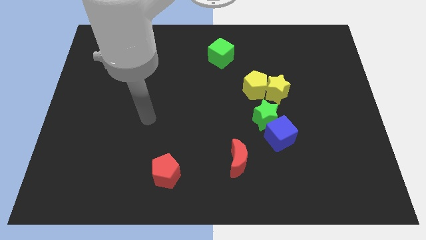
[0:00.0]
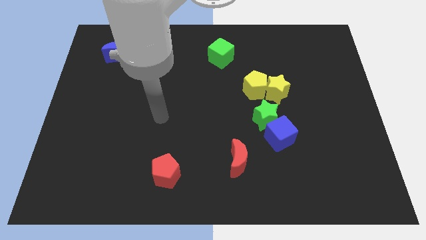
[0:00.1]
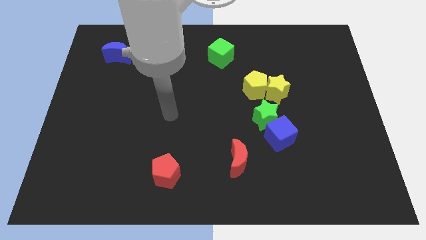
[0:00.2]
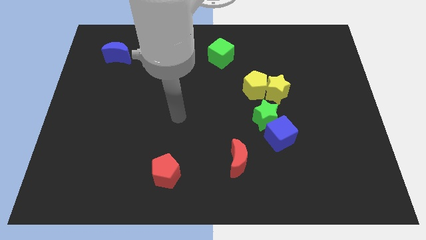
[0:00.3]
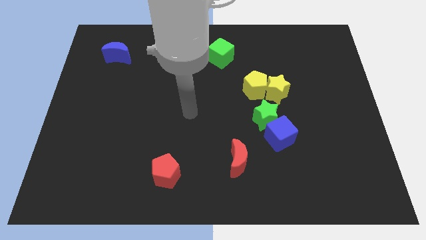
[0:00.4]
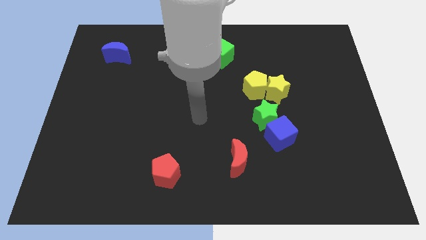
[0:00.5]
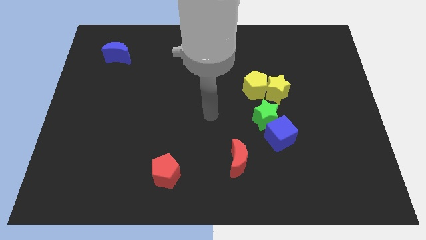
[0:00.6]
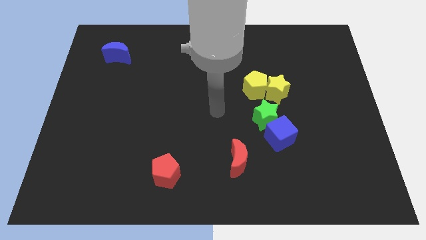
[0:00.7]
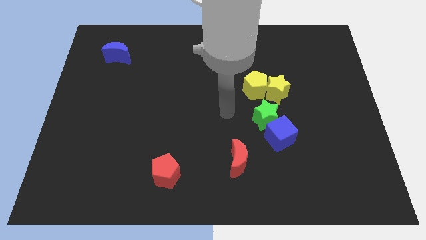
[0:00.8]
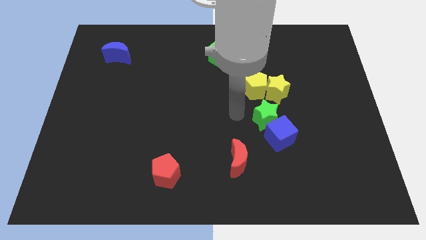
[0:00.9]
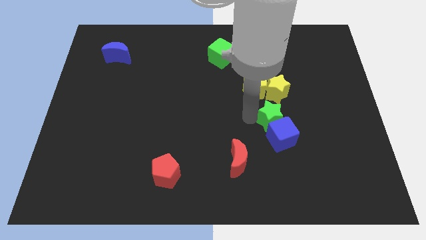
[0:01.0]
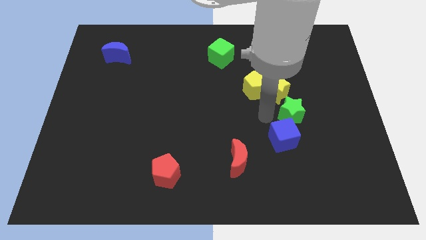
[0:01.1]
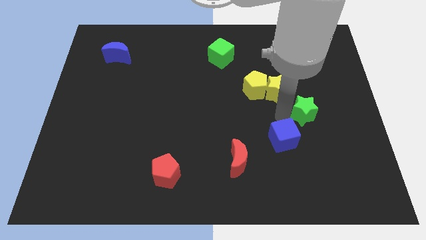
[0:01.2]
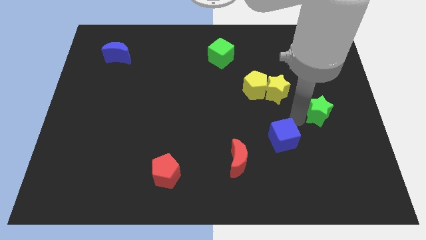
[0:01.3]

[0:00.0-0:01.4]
separate the blue cube from the green star

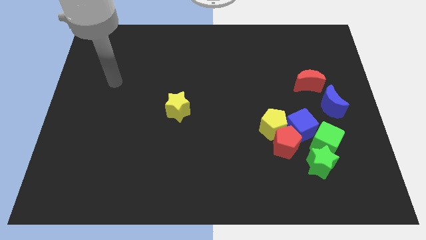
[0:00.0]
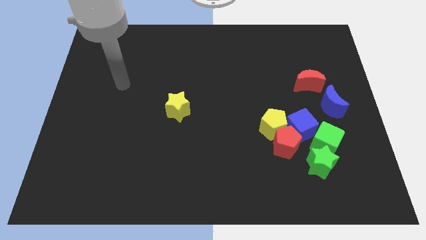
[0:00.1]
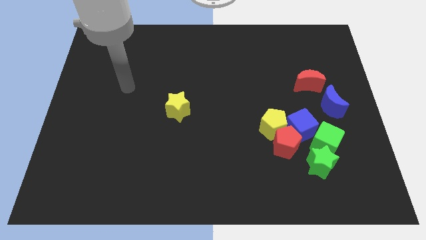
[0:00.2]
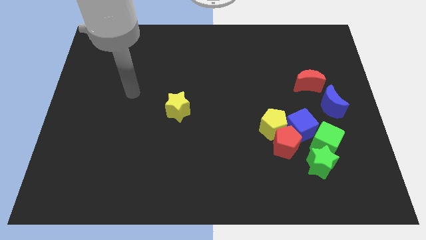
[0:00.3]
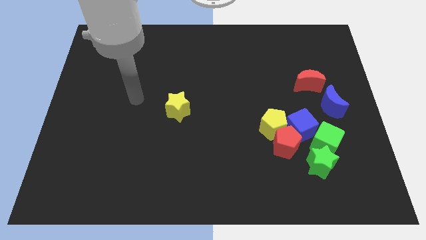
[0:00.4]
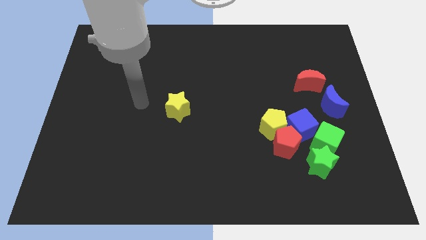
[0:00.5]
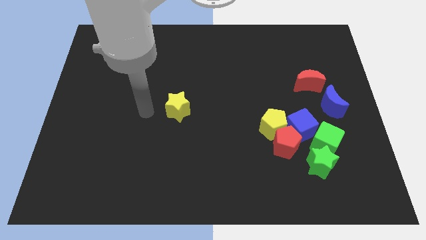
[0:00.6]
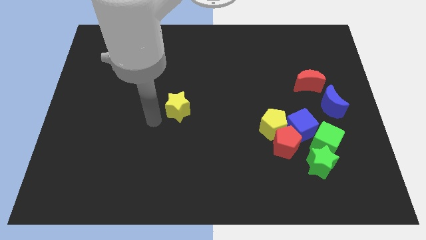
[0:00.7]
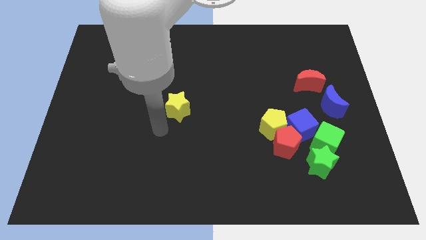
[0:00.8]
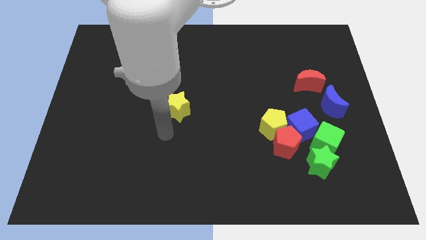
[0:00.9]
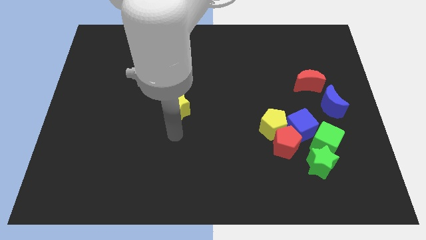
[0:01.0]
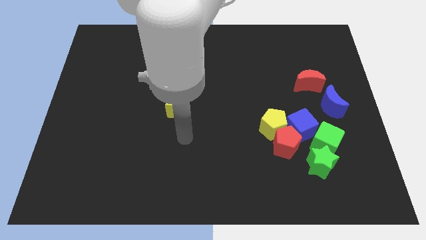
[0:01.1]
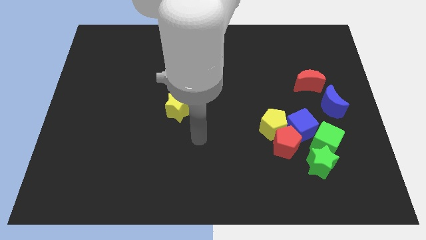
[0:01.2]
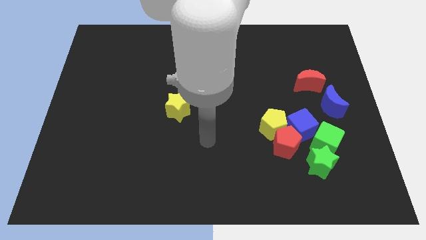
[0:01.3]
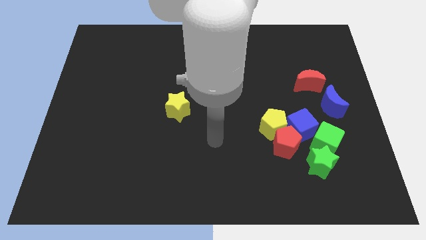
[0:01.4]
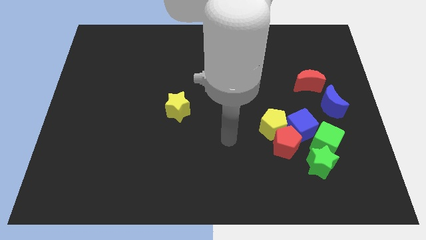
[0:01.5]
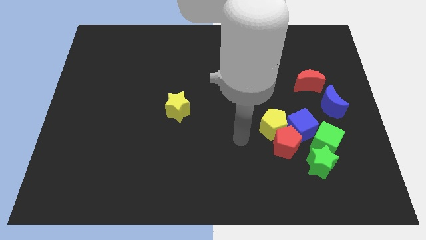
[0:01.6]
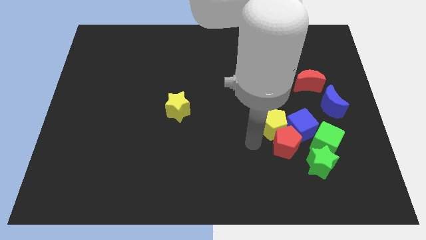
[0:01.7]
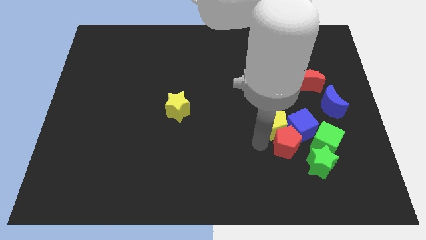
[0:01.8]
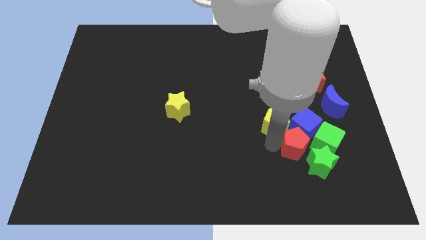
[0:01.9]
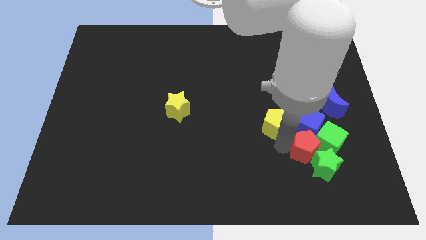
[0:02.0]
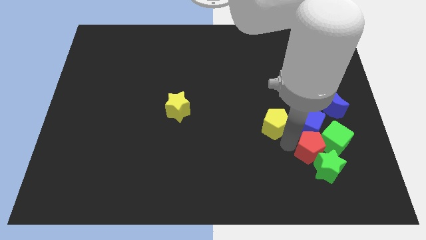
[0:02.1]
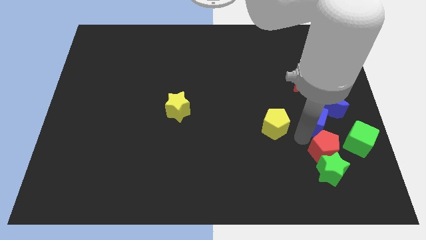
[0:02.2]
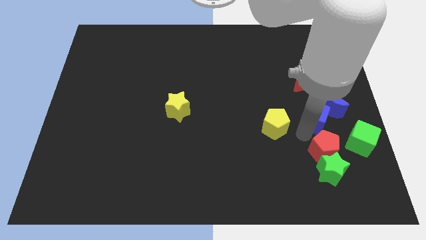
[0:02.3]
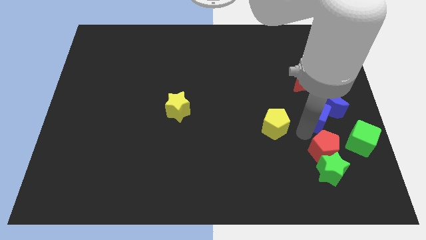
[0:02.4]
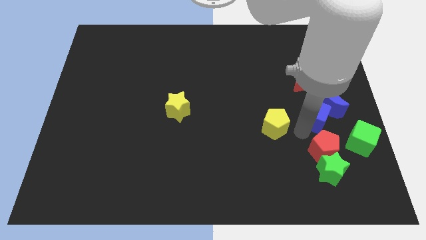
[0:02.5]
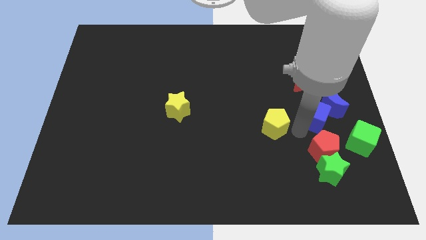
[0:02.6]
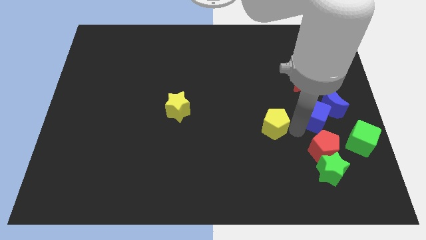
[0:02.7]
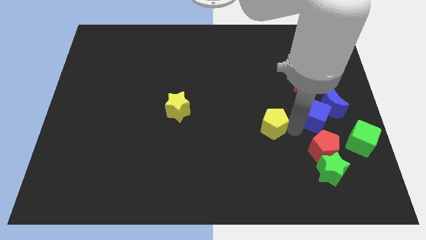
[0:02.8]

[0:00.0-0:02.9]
separate the yellow pentagon from the red pentagon and blue cube

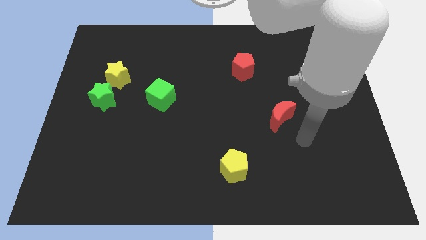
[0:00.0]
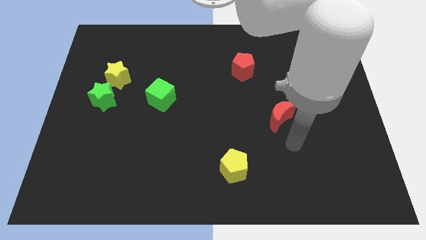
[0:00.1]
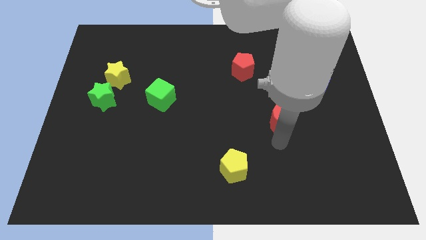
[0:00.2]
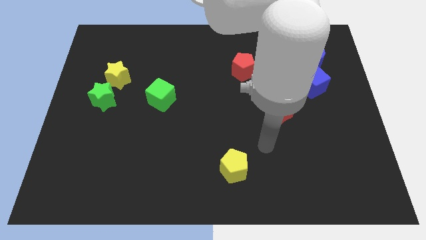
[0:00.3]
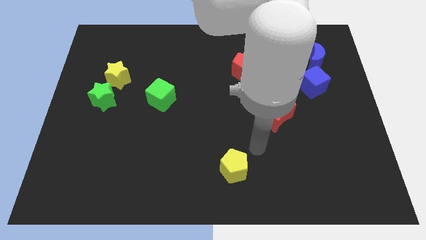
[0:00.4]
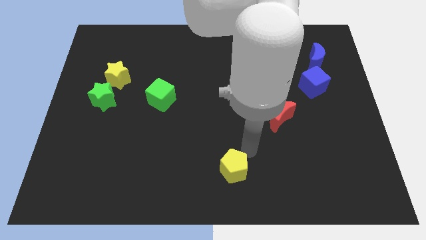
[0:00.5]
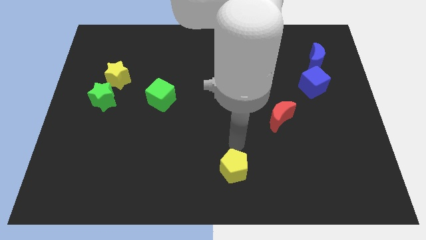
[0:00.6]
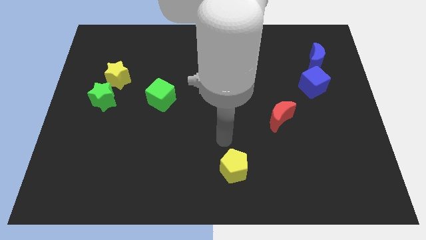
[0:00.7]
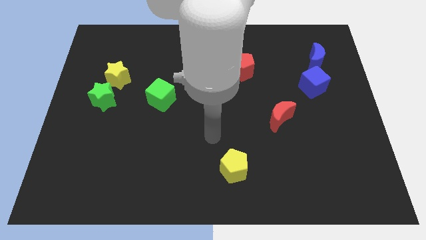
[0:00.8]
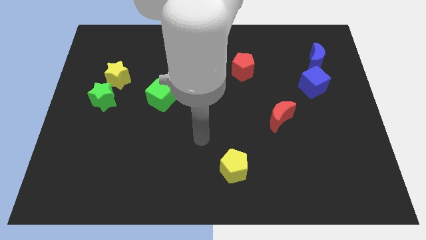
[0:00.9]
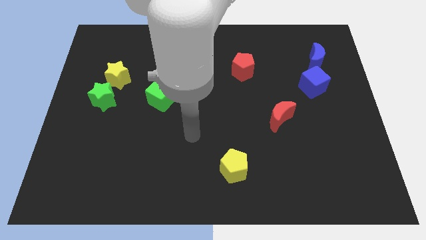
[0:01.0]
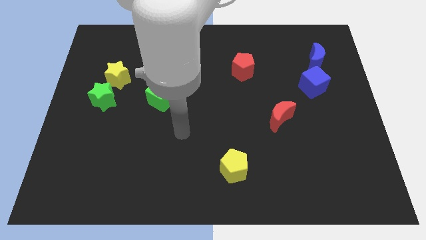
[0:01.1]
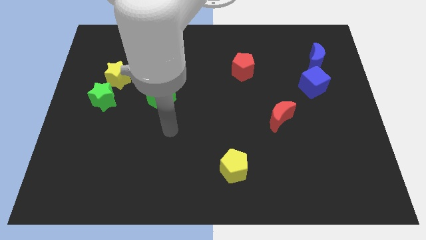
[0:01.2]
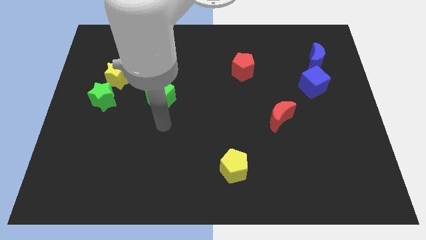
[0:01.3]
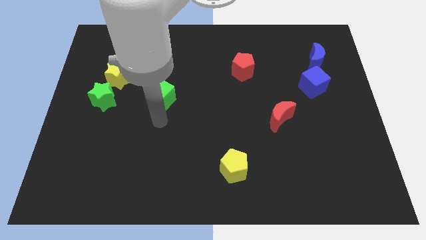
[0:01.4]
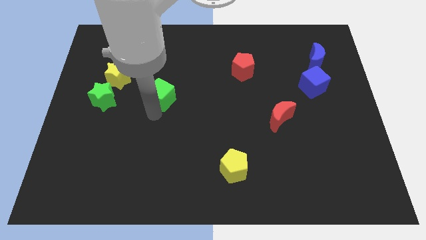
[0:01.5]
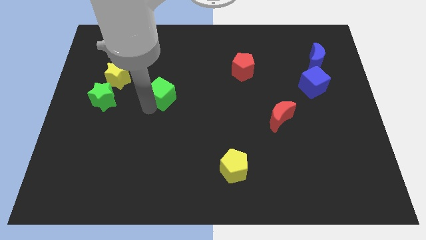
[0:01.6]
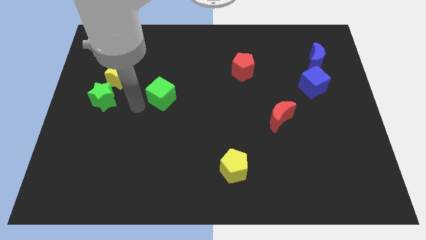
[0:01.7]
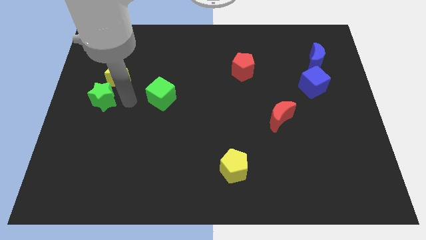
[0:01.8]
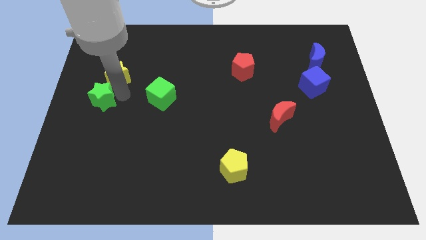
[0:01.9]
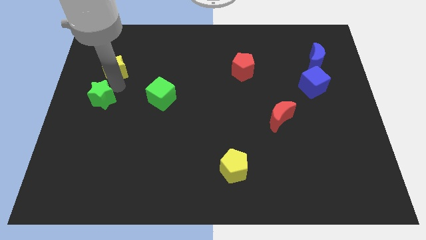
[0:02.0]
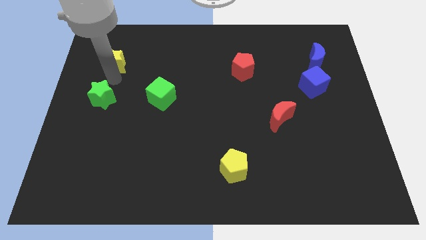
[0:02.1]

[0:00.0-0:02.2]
pull the green star apart from the yellow star

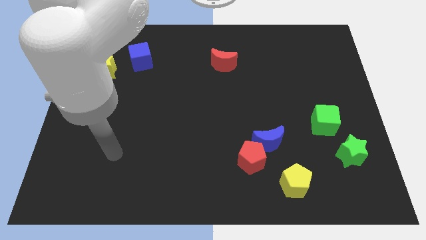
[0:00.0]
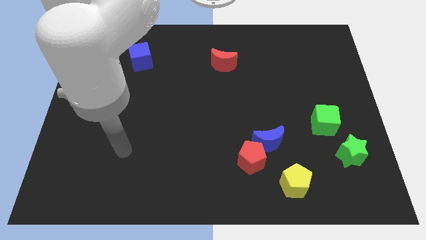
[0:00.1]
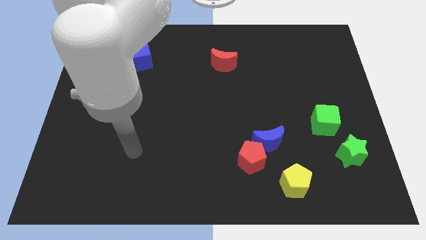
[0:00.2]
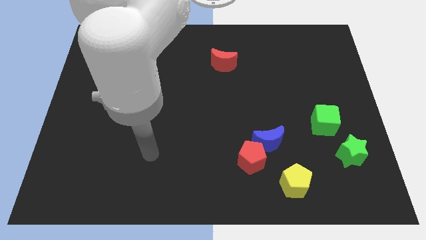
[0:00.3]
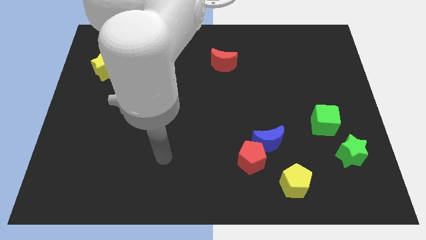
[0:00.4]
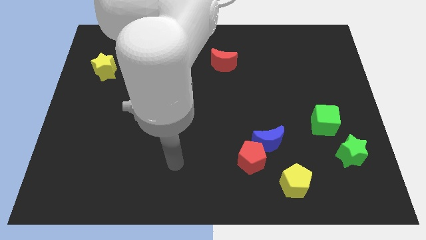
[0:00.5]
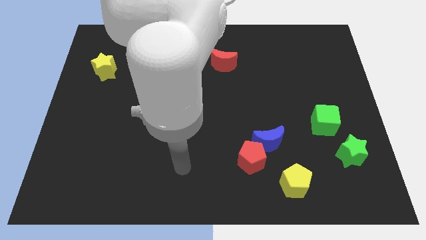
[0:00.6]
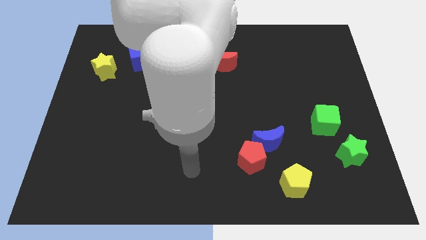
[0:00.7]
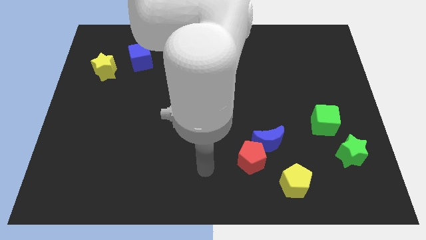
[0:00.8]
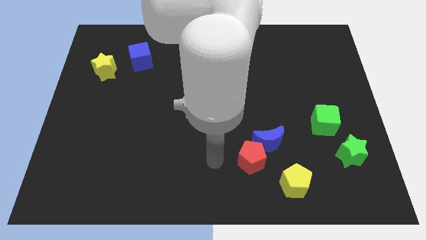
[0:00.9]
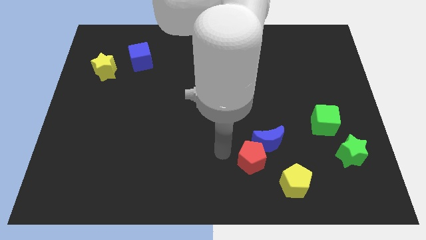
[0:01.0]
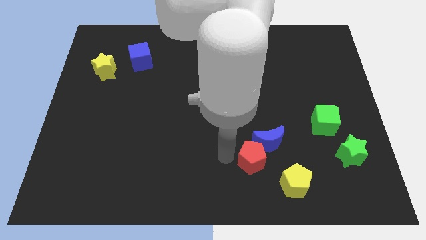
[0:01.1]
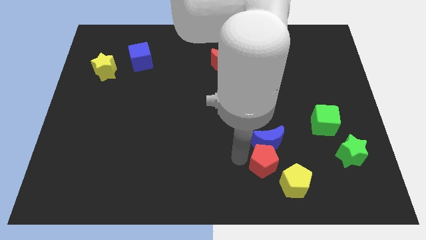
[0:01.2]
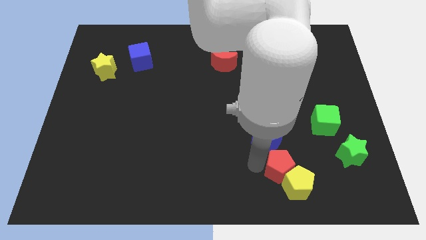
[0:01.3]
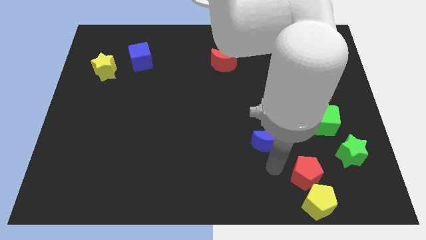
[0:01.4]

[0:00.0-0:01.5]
separate the blue moon from the red pentagon

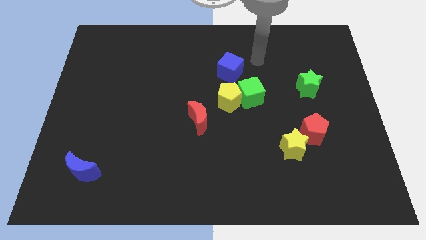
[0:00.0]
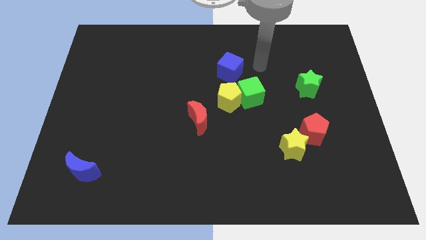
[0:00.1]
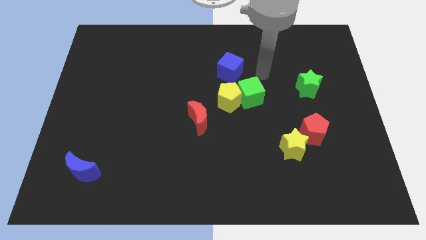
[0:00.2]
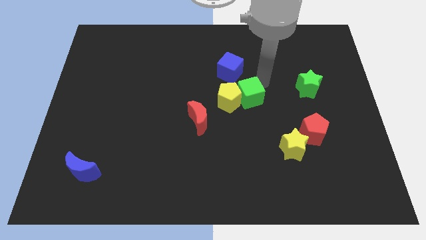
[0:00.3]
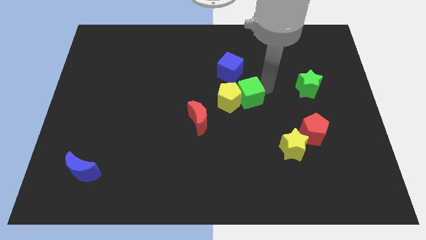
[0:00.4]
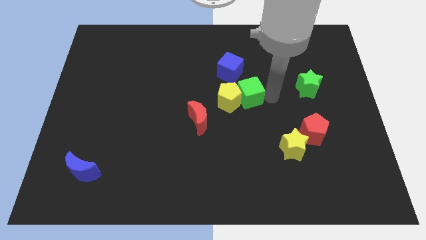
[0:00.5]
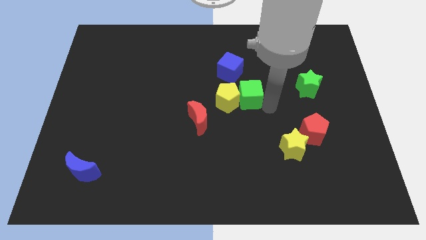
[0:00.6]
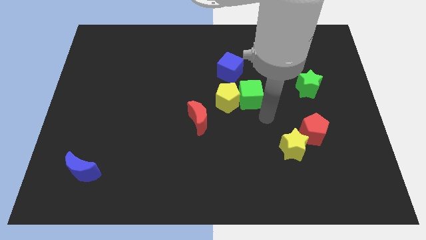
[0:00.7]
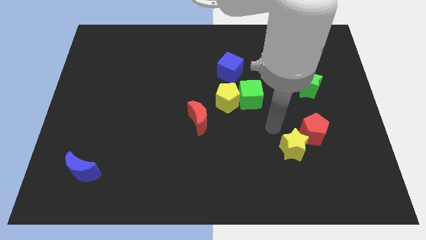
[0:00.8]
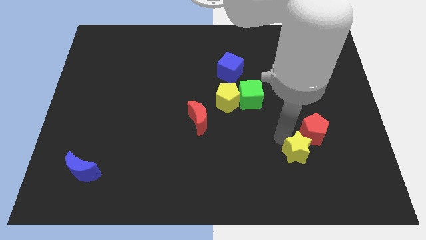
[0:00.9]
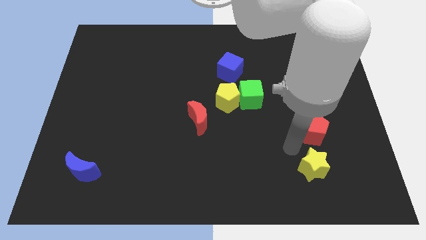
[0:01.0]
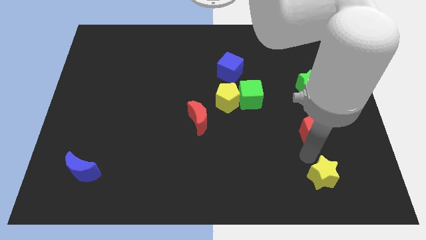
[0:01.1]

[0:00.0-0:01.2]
pull the red pentagon apart from the yellow star

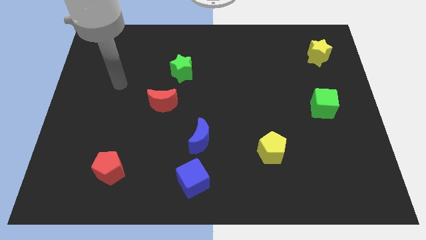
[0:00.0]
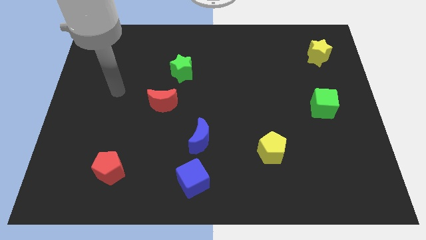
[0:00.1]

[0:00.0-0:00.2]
separate the blue moon from the blue cube
